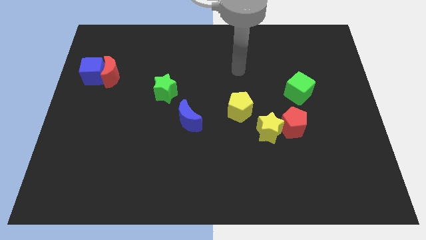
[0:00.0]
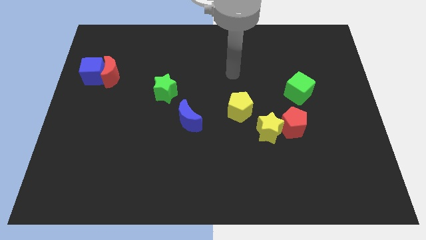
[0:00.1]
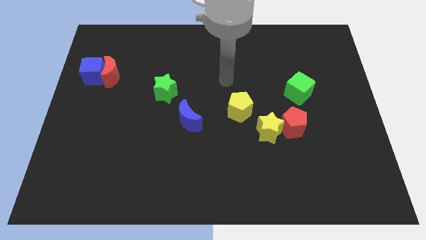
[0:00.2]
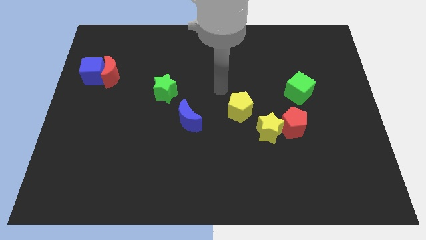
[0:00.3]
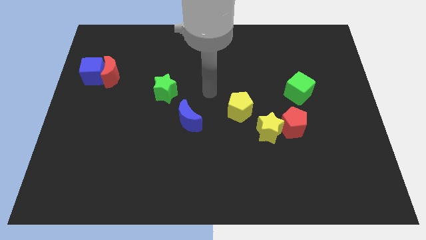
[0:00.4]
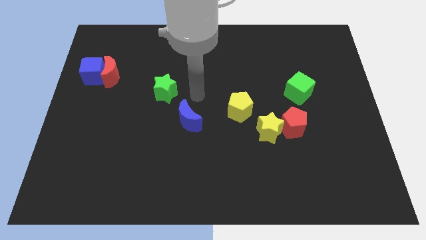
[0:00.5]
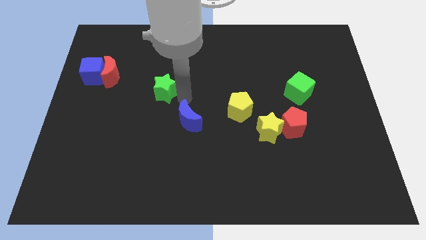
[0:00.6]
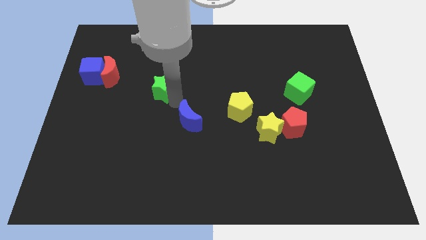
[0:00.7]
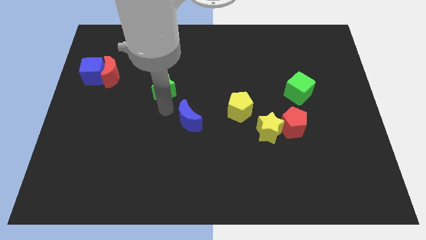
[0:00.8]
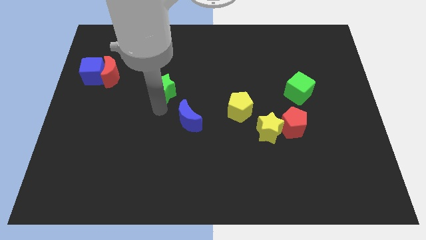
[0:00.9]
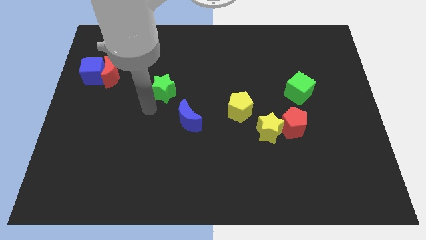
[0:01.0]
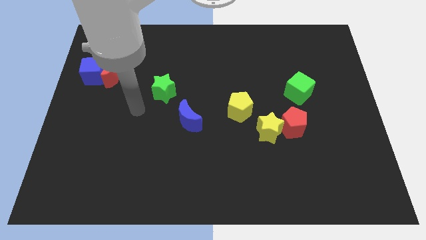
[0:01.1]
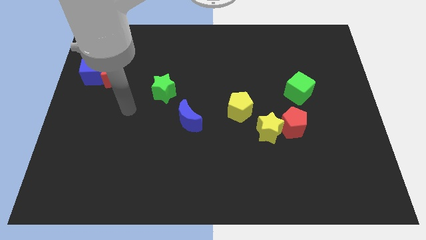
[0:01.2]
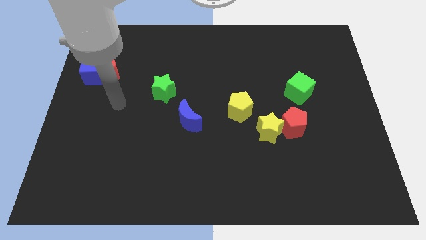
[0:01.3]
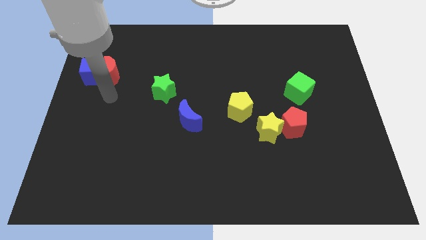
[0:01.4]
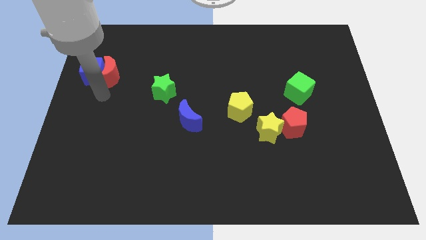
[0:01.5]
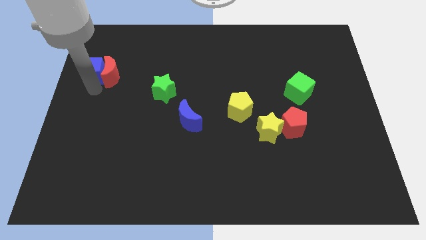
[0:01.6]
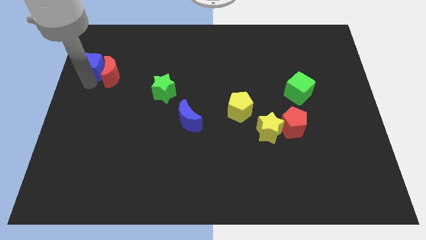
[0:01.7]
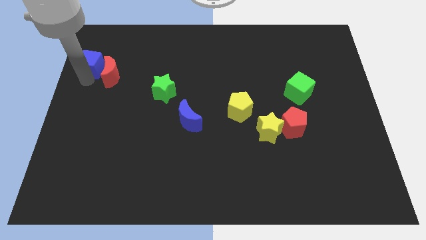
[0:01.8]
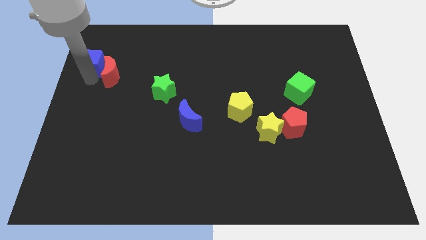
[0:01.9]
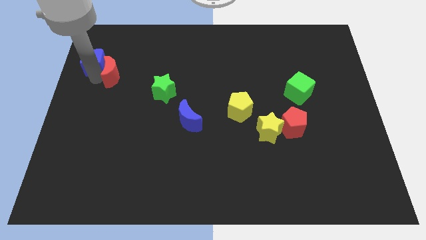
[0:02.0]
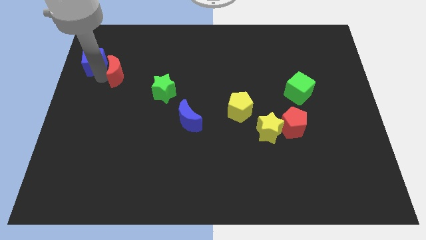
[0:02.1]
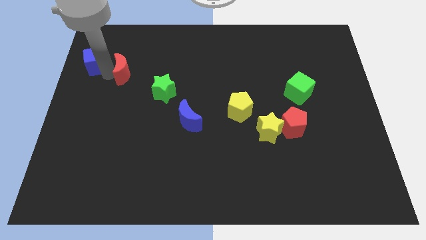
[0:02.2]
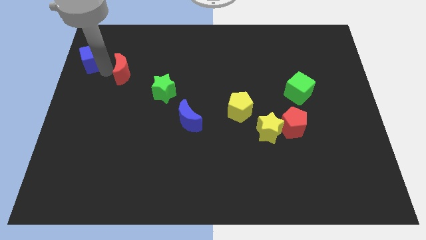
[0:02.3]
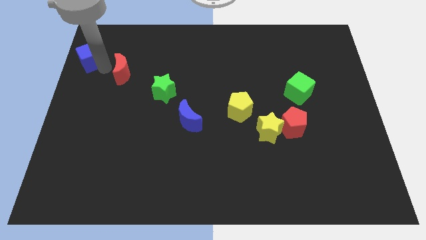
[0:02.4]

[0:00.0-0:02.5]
pull the red moon apart from the blue cube

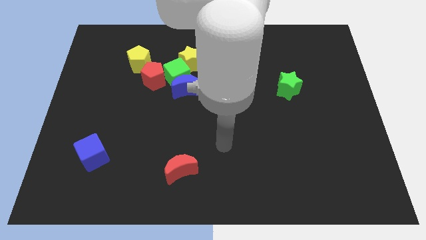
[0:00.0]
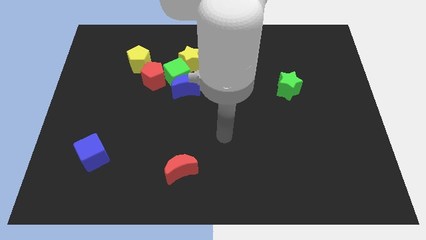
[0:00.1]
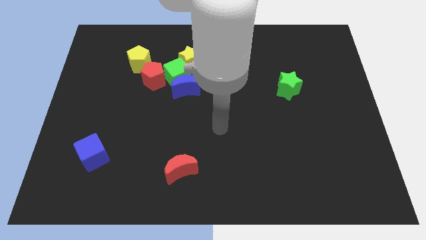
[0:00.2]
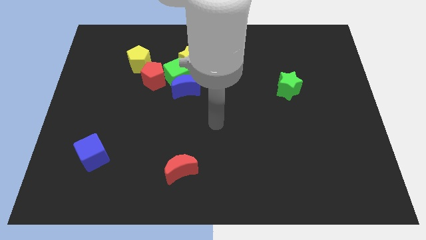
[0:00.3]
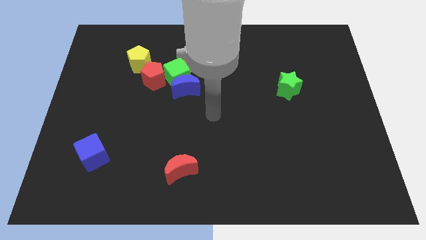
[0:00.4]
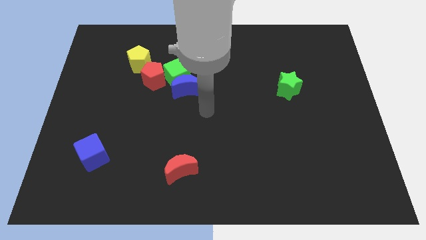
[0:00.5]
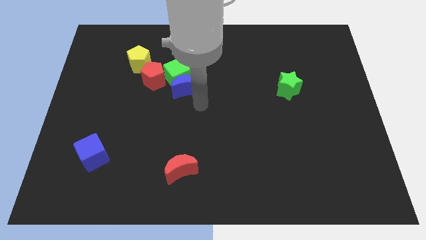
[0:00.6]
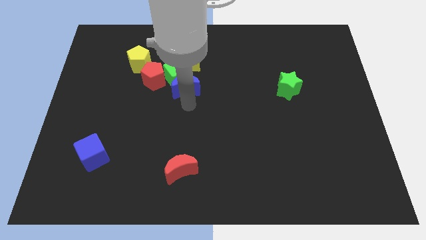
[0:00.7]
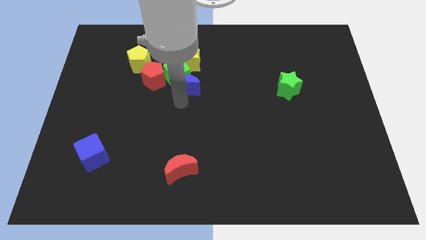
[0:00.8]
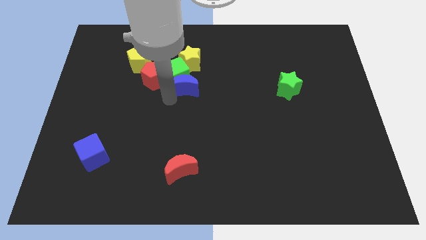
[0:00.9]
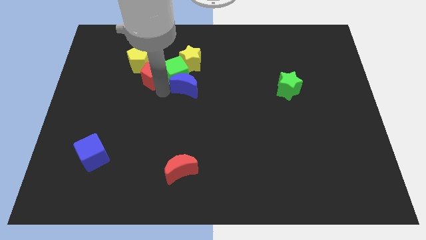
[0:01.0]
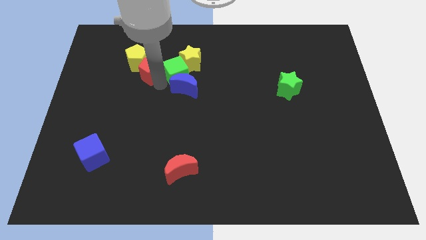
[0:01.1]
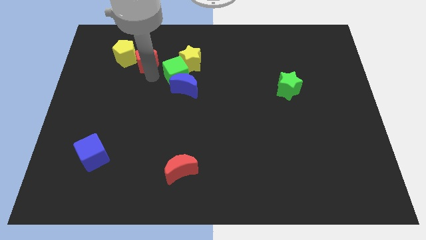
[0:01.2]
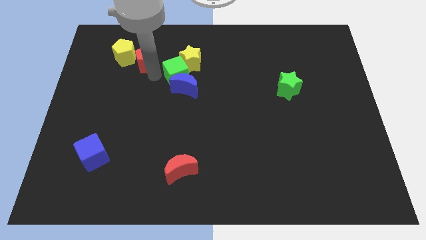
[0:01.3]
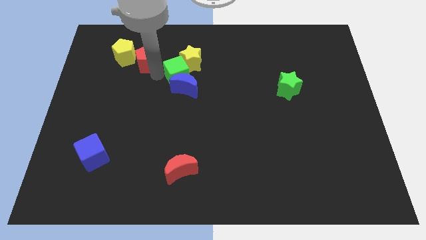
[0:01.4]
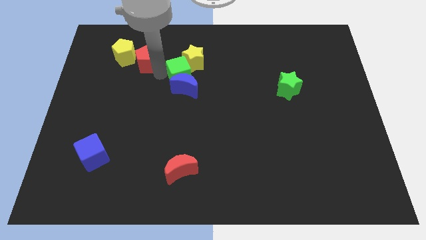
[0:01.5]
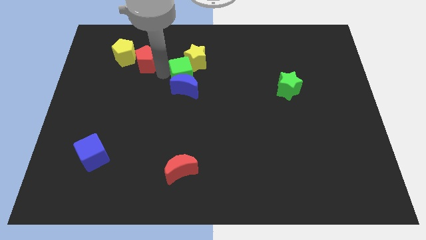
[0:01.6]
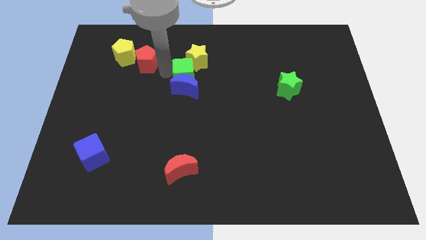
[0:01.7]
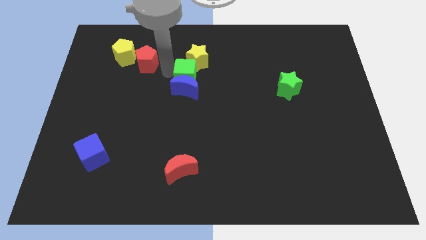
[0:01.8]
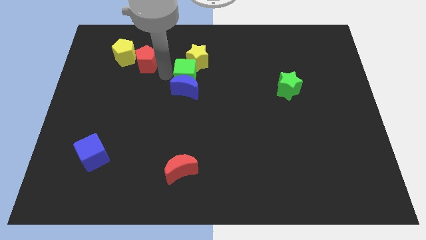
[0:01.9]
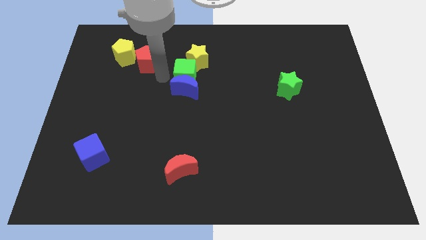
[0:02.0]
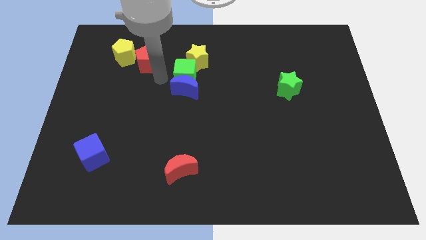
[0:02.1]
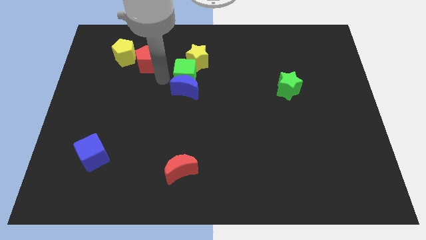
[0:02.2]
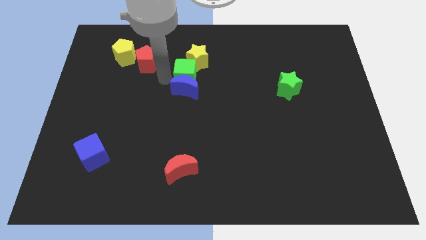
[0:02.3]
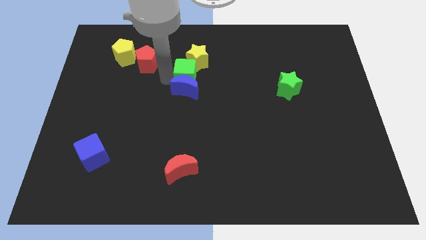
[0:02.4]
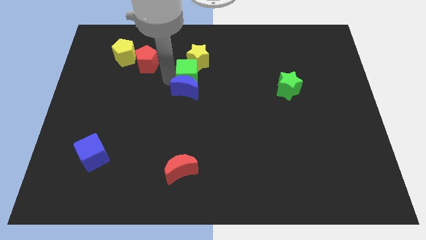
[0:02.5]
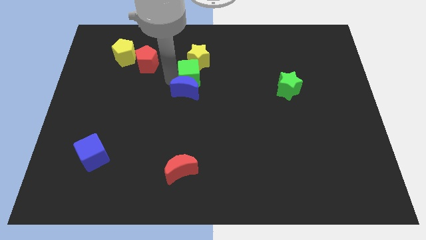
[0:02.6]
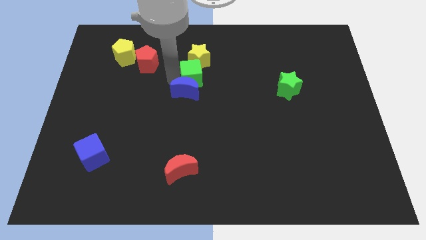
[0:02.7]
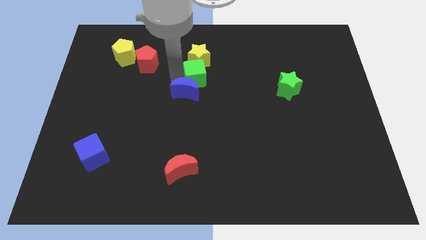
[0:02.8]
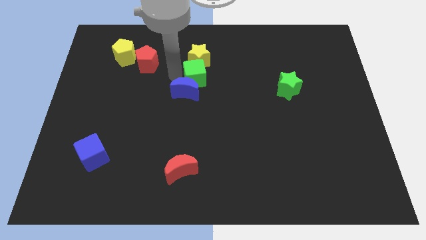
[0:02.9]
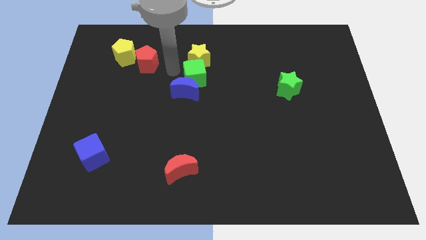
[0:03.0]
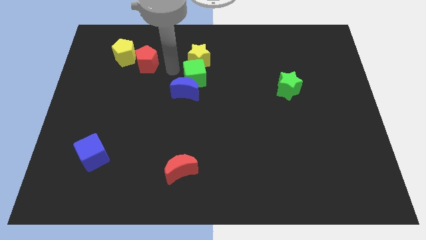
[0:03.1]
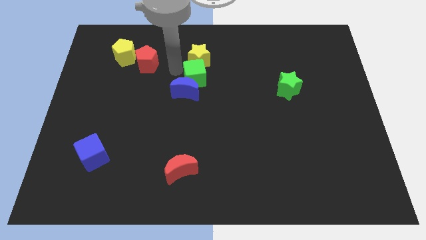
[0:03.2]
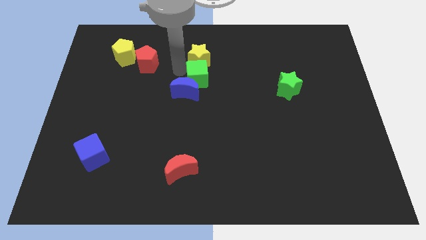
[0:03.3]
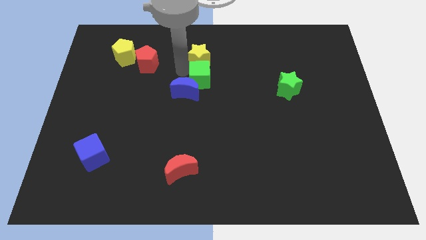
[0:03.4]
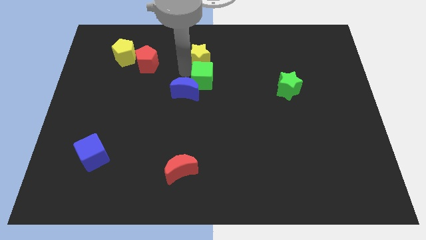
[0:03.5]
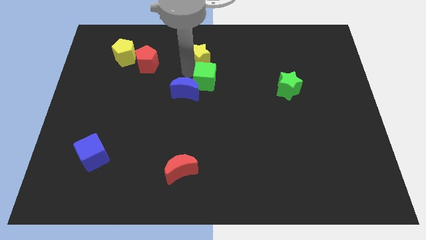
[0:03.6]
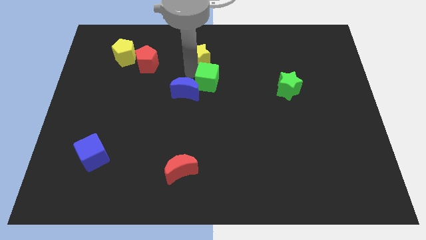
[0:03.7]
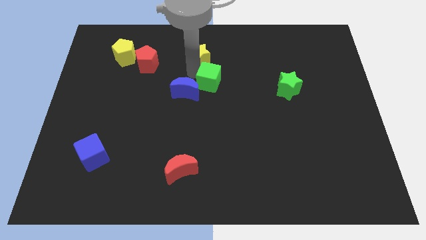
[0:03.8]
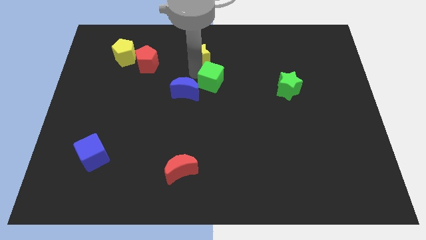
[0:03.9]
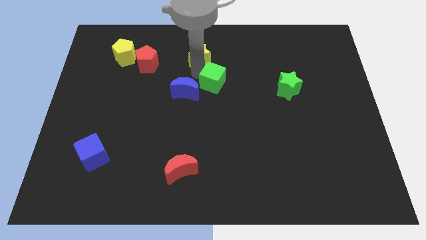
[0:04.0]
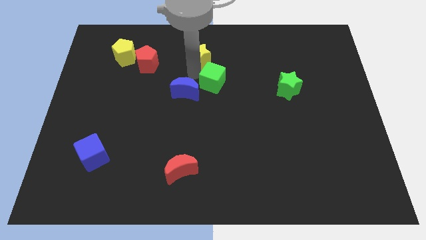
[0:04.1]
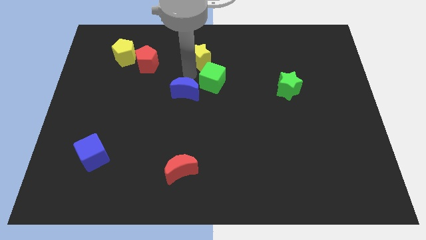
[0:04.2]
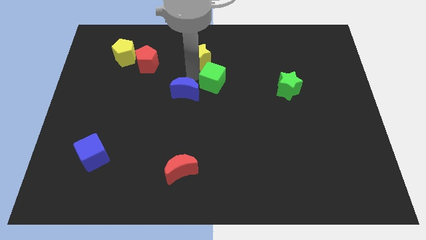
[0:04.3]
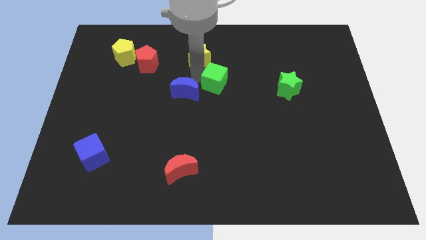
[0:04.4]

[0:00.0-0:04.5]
separate the green cube from the blue moon, yellow star, and red pentagon

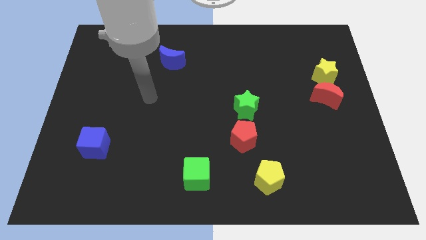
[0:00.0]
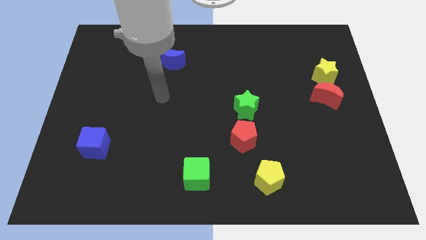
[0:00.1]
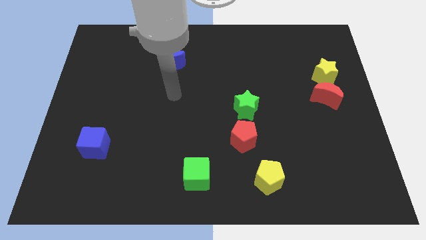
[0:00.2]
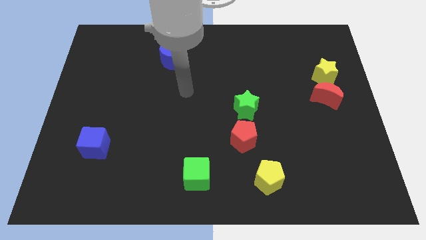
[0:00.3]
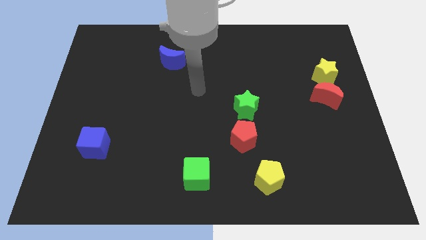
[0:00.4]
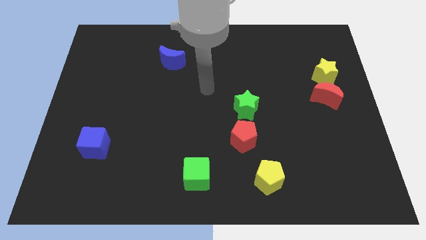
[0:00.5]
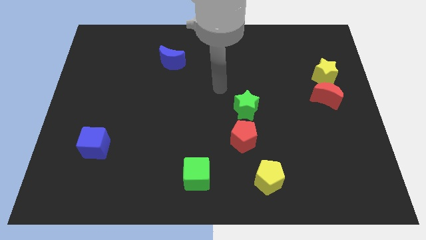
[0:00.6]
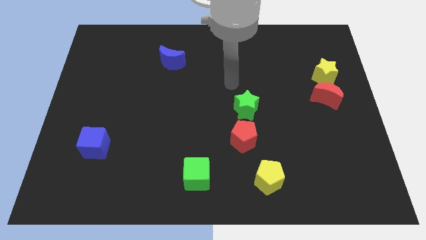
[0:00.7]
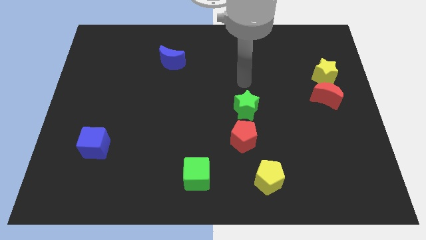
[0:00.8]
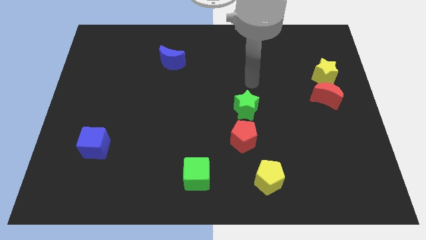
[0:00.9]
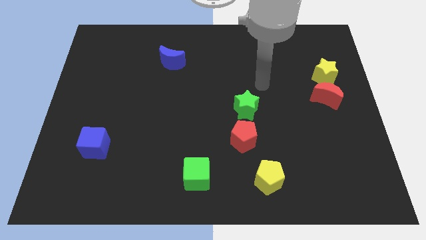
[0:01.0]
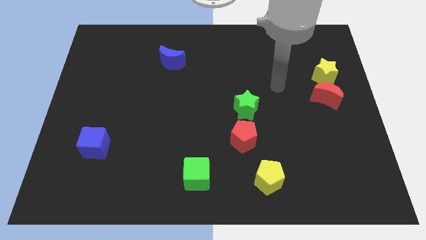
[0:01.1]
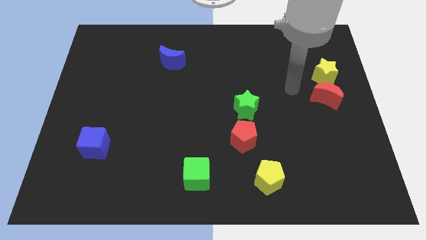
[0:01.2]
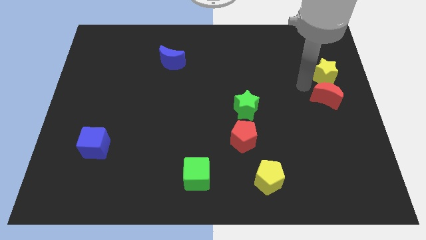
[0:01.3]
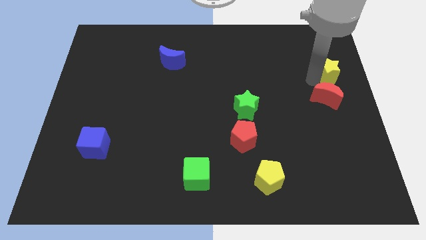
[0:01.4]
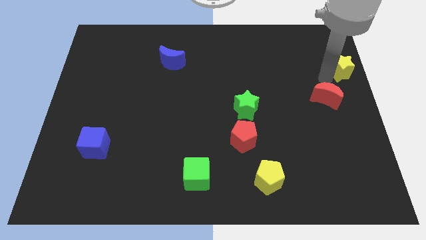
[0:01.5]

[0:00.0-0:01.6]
move the red moon away from the yellow star

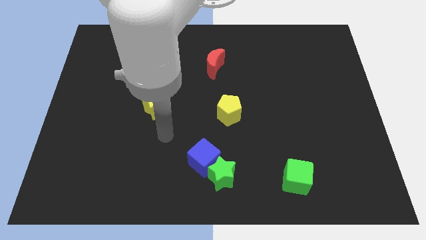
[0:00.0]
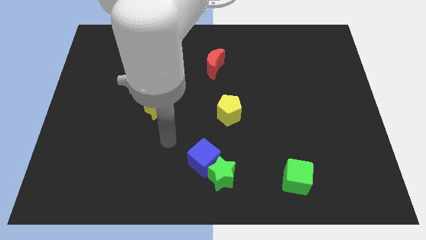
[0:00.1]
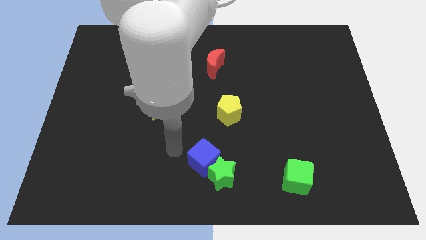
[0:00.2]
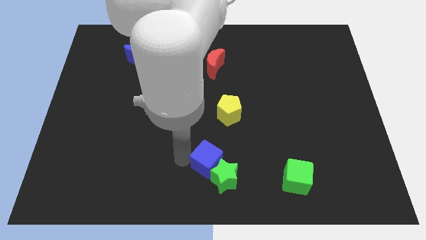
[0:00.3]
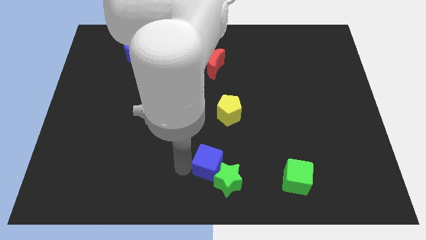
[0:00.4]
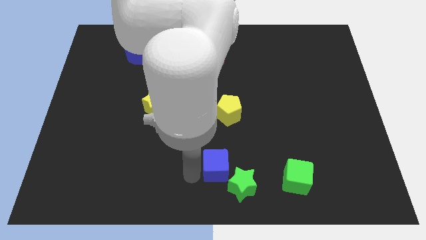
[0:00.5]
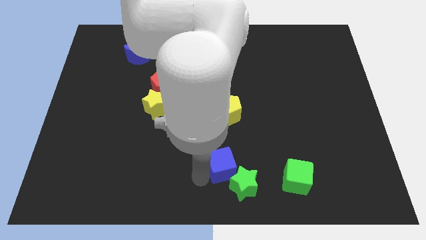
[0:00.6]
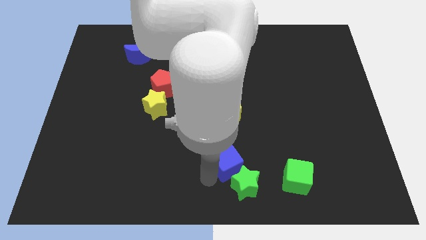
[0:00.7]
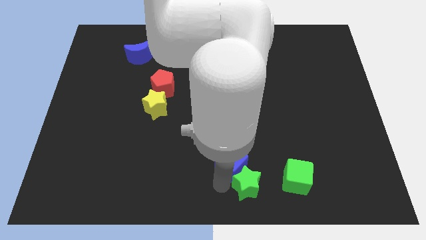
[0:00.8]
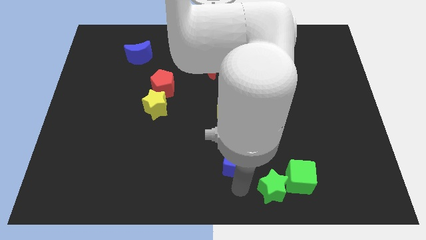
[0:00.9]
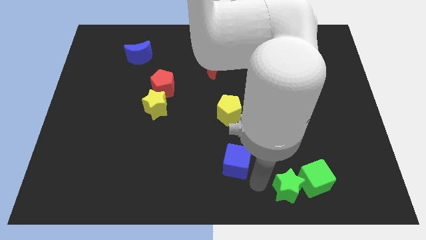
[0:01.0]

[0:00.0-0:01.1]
move the blue cube away from the green star
